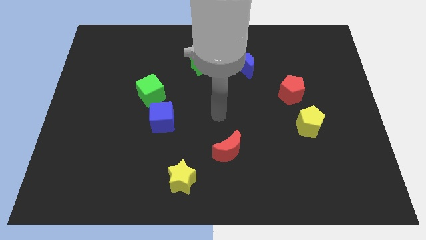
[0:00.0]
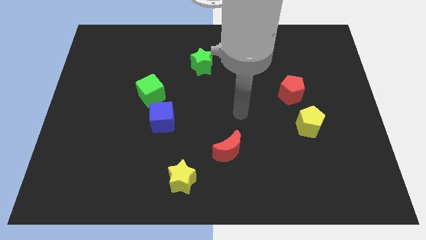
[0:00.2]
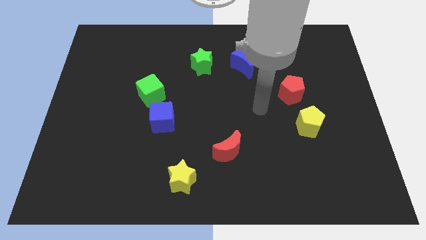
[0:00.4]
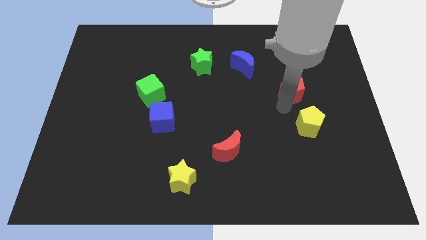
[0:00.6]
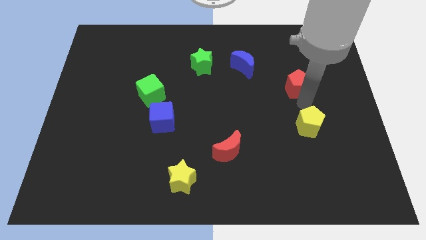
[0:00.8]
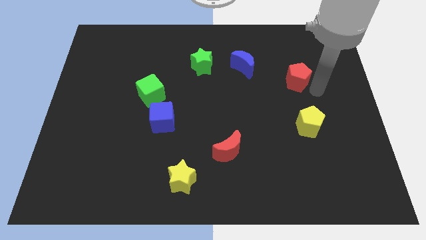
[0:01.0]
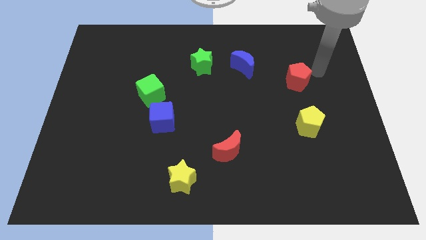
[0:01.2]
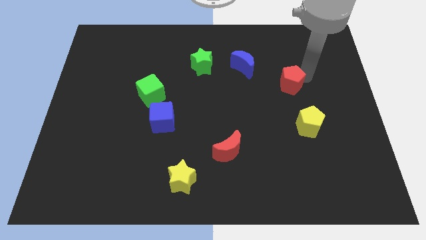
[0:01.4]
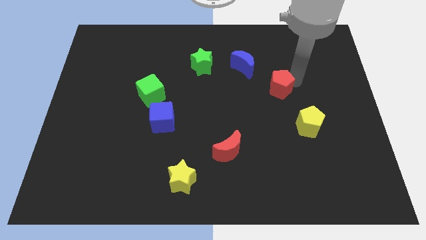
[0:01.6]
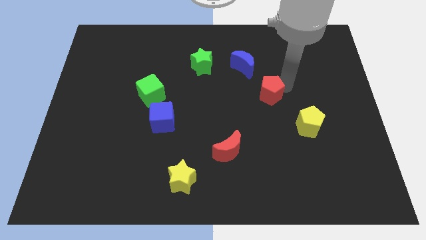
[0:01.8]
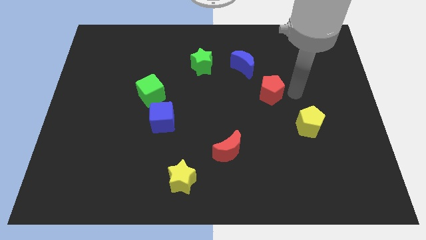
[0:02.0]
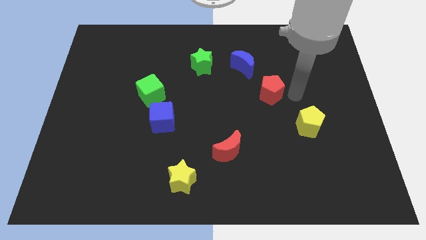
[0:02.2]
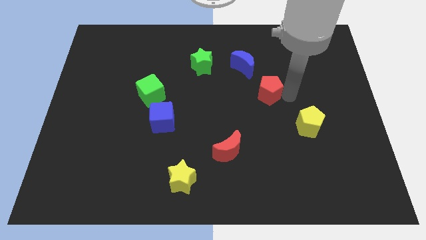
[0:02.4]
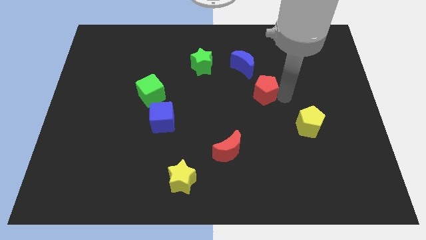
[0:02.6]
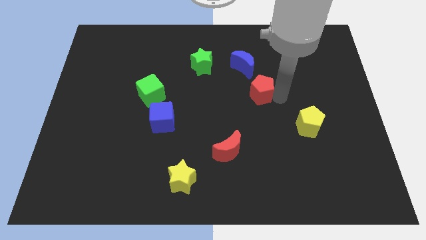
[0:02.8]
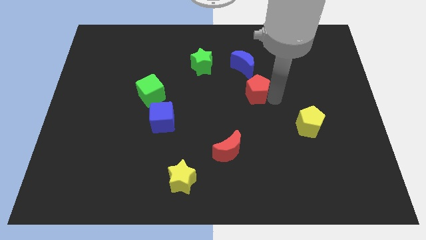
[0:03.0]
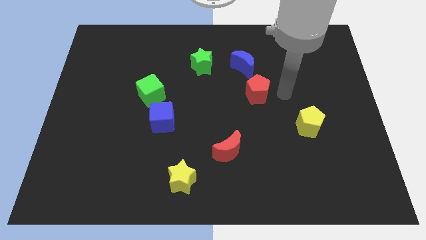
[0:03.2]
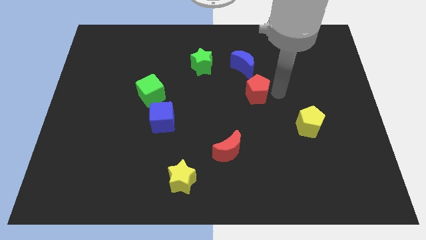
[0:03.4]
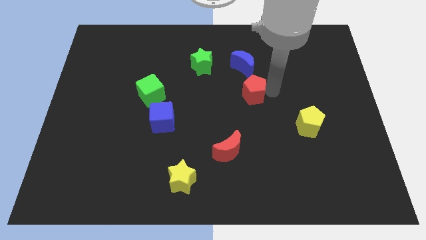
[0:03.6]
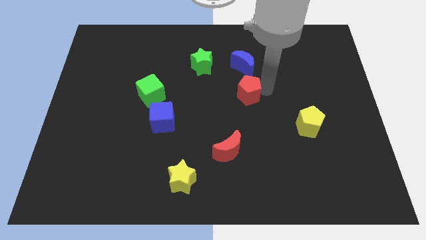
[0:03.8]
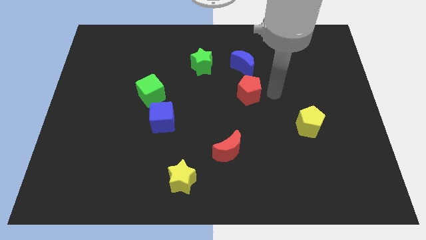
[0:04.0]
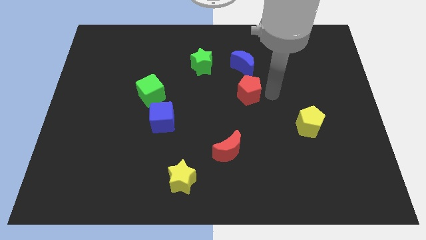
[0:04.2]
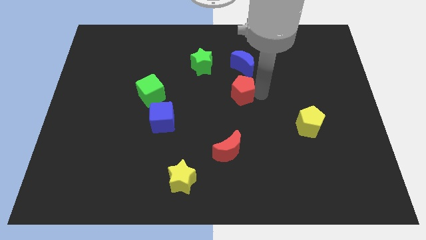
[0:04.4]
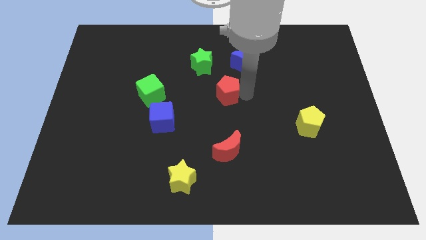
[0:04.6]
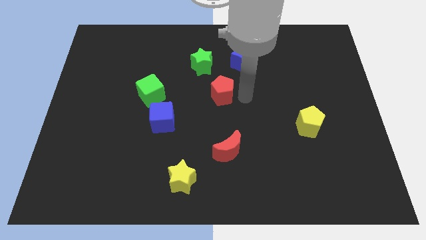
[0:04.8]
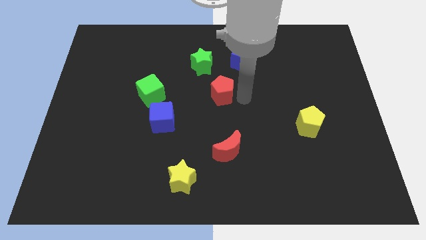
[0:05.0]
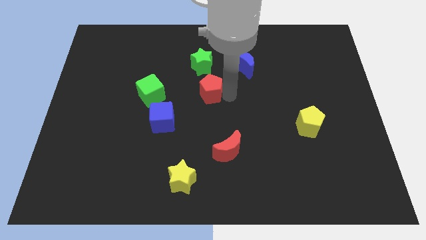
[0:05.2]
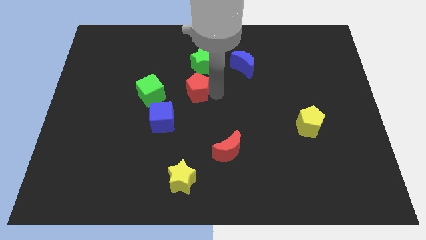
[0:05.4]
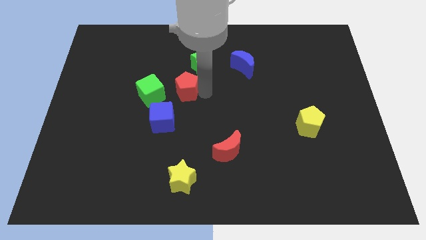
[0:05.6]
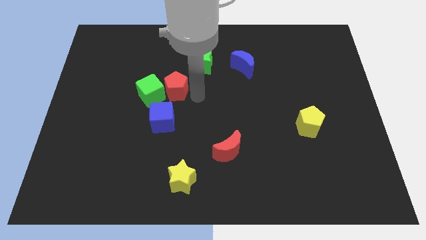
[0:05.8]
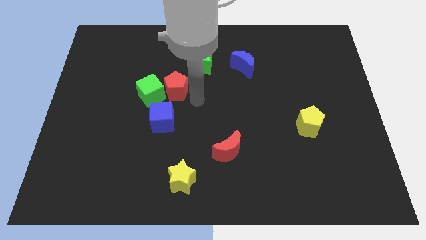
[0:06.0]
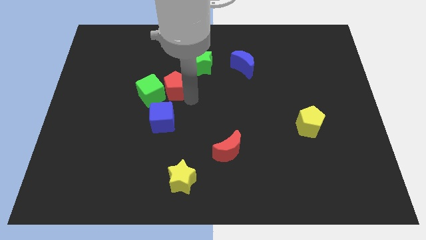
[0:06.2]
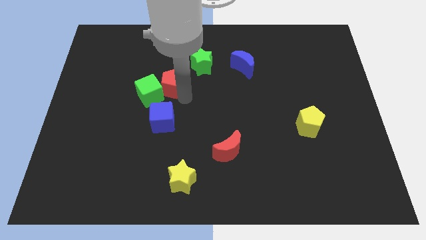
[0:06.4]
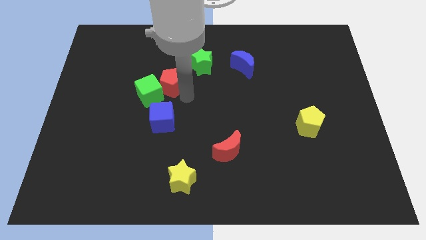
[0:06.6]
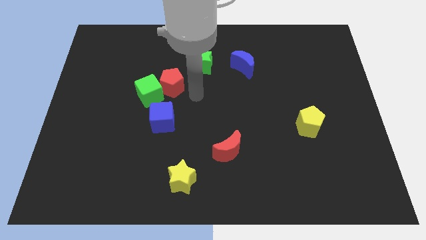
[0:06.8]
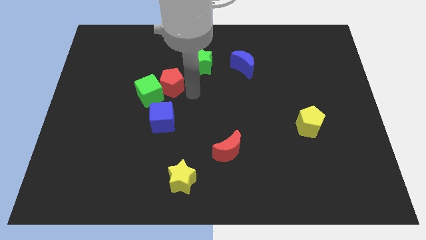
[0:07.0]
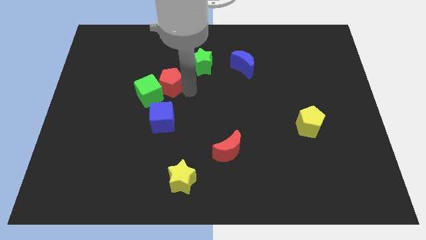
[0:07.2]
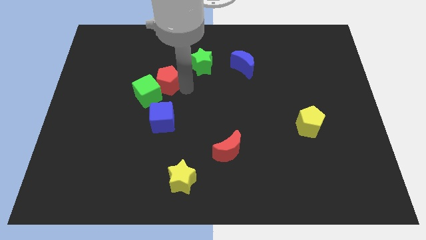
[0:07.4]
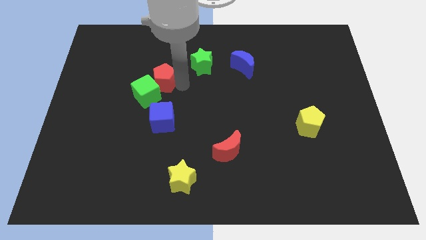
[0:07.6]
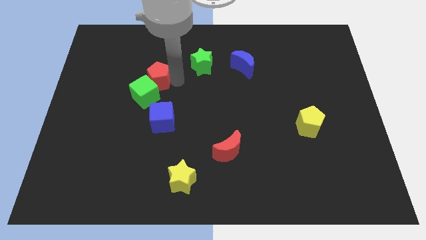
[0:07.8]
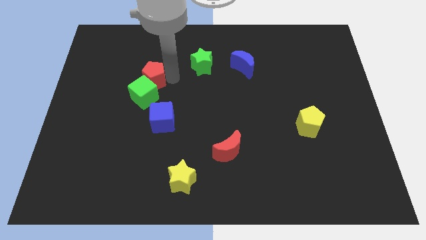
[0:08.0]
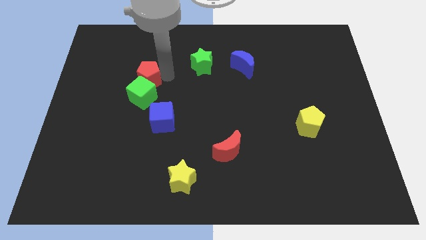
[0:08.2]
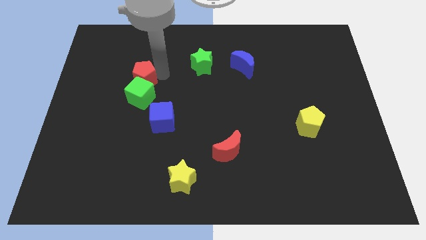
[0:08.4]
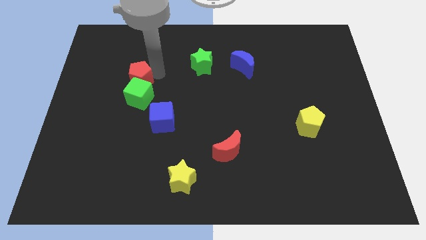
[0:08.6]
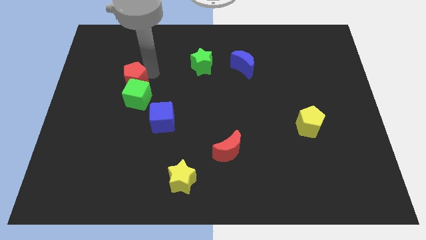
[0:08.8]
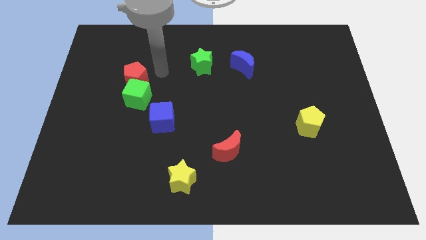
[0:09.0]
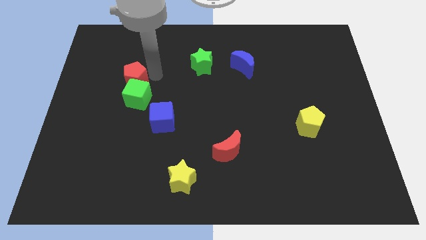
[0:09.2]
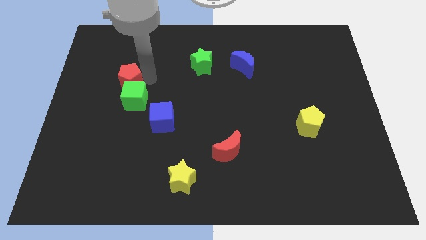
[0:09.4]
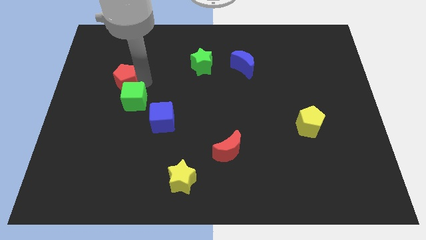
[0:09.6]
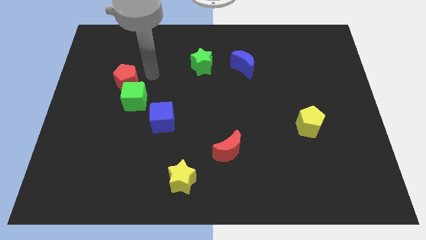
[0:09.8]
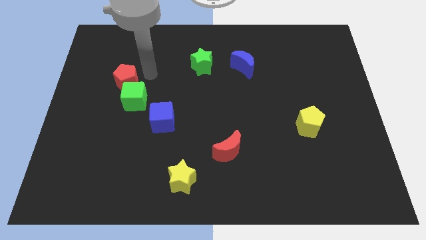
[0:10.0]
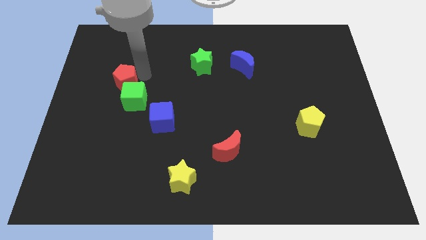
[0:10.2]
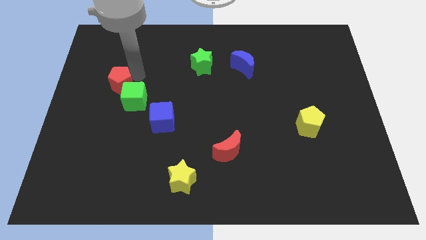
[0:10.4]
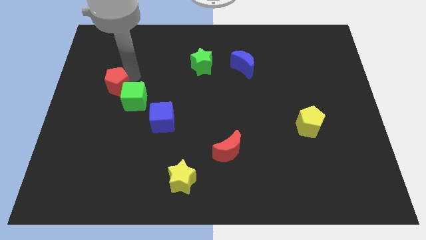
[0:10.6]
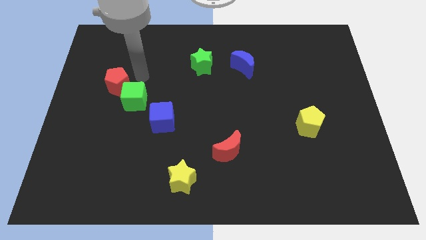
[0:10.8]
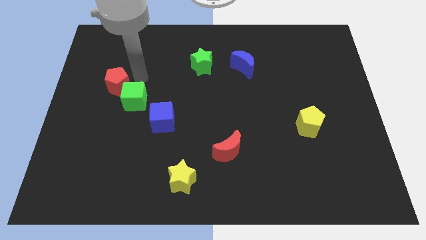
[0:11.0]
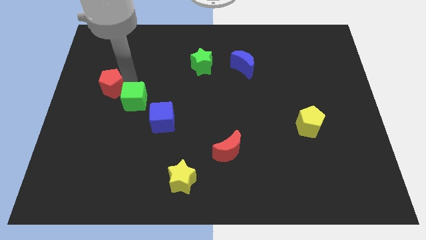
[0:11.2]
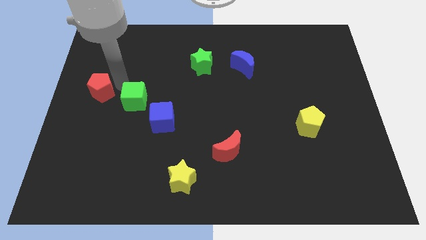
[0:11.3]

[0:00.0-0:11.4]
put the red pentagon to the left side
